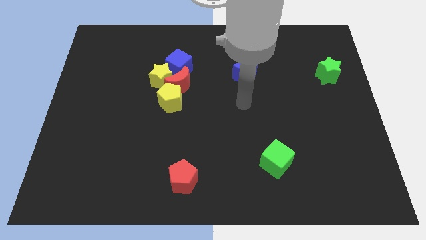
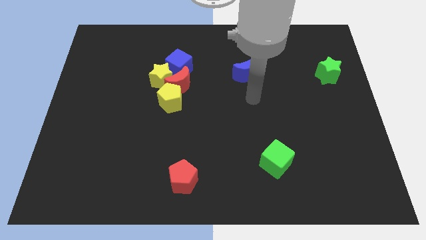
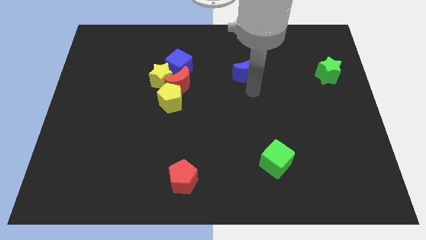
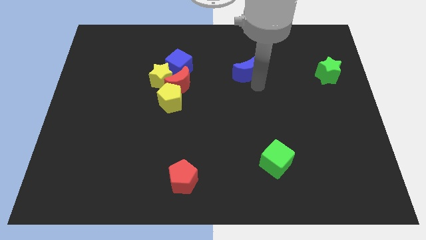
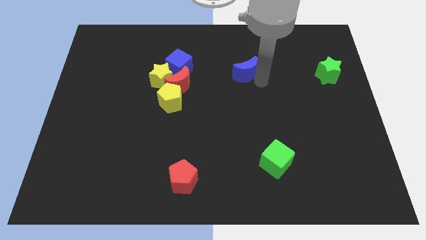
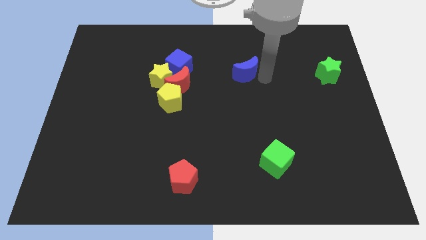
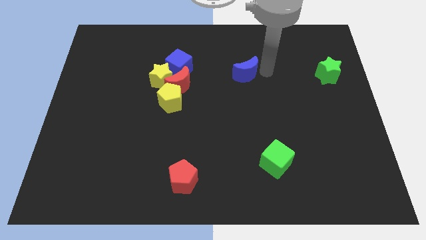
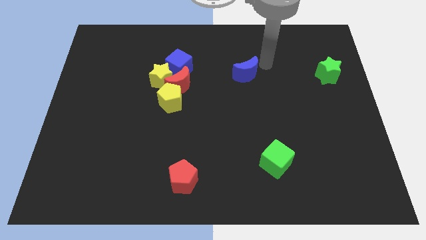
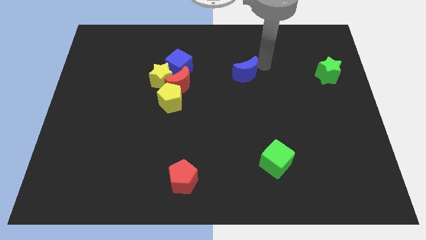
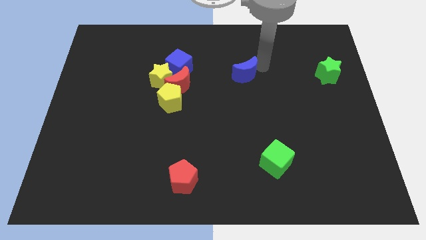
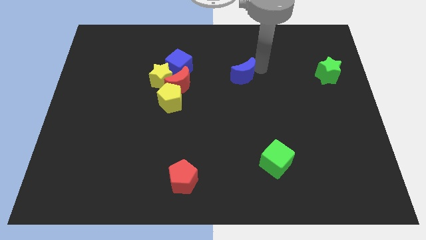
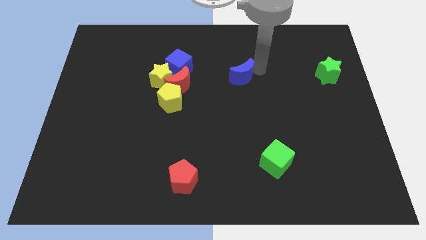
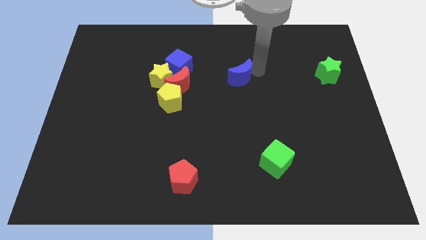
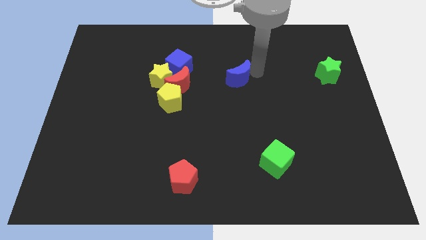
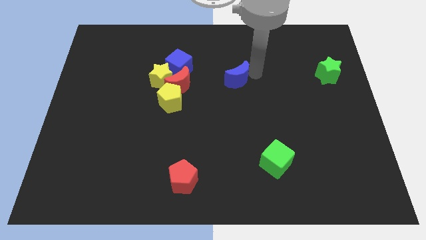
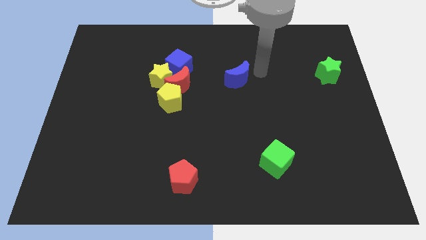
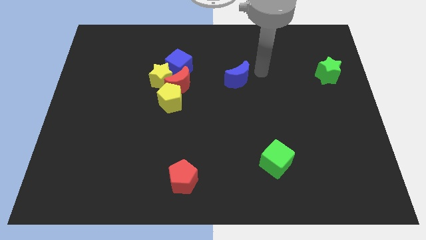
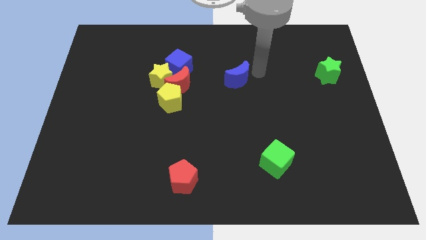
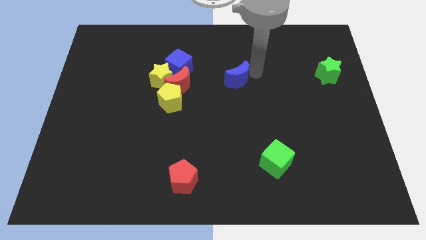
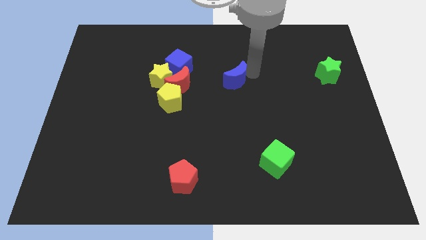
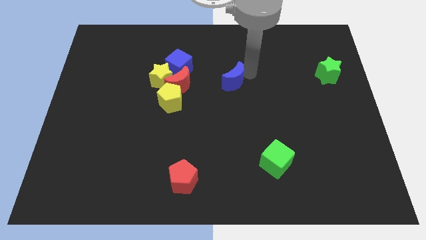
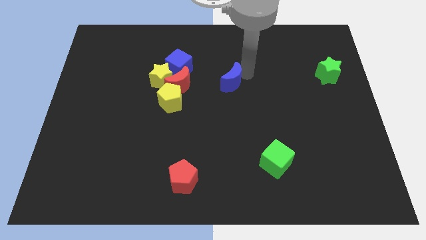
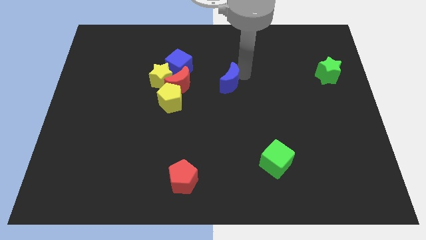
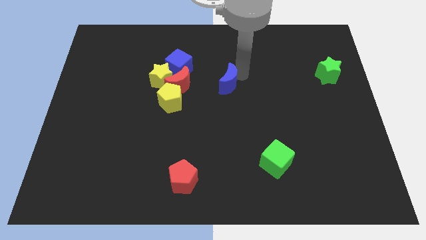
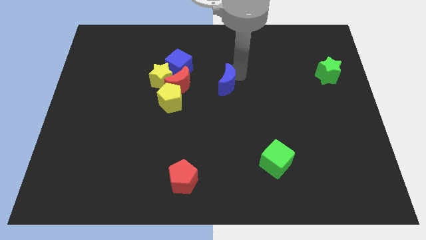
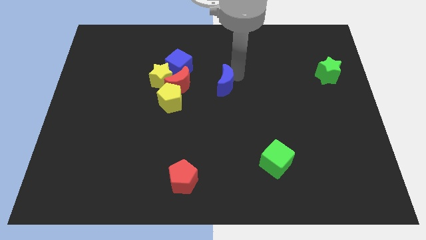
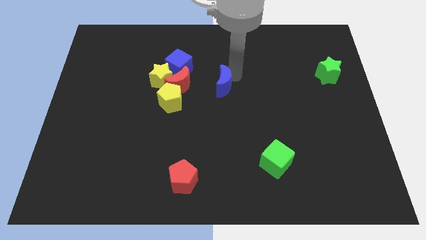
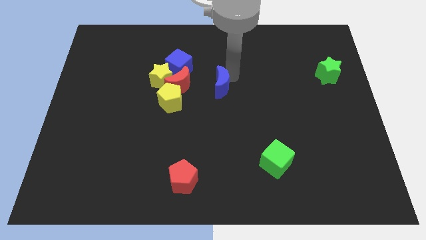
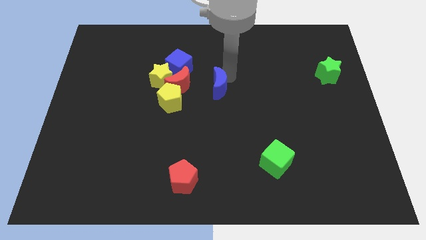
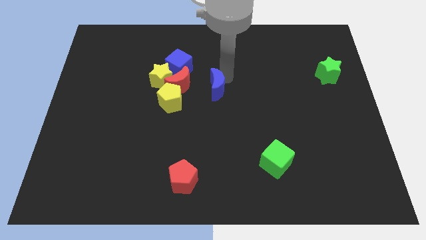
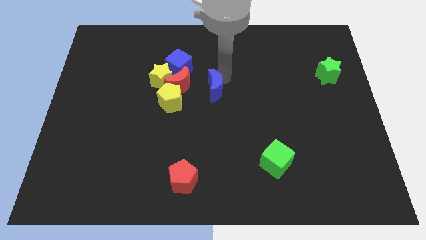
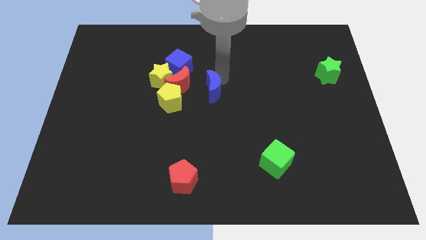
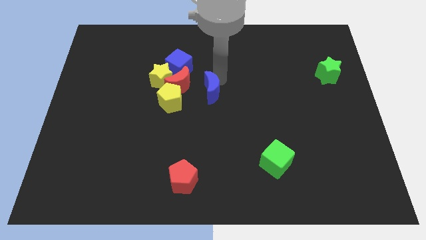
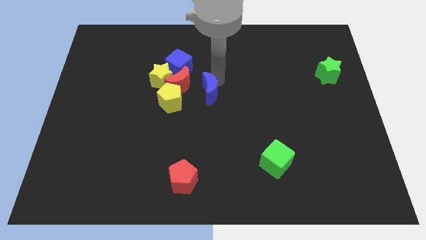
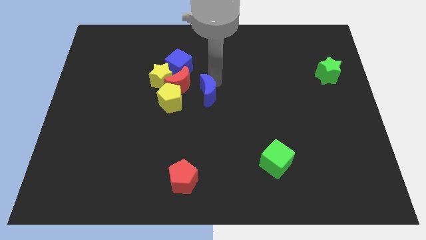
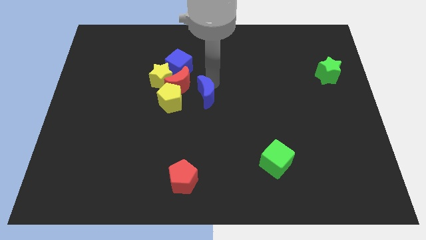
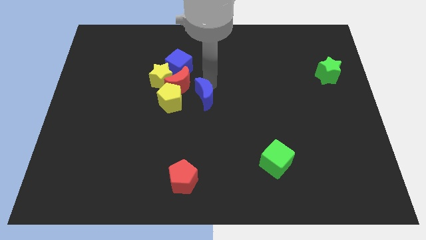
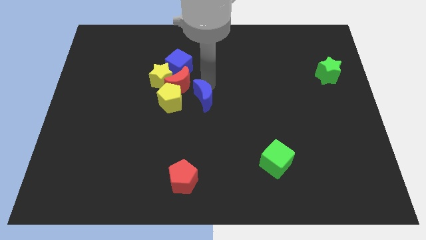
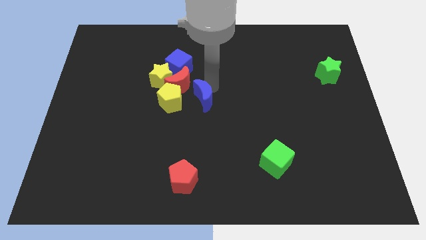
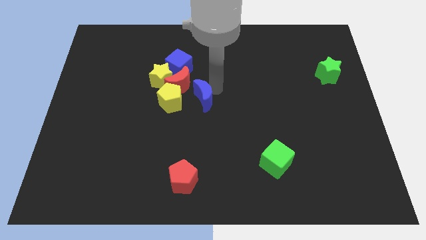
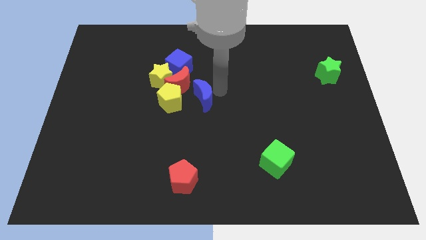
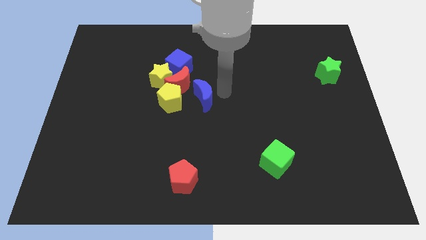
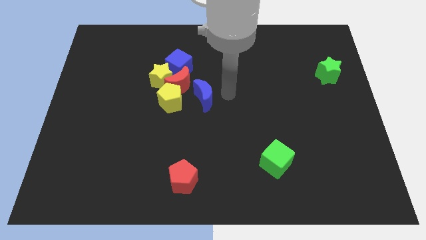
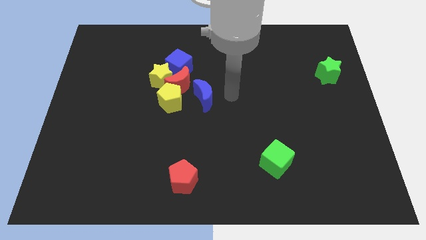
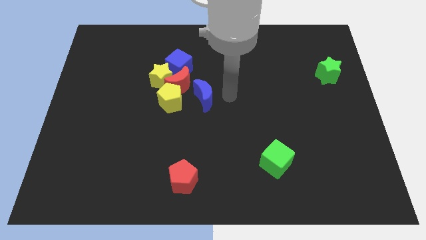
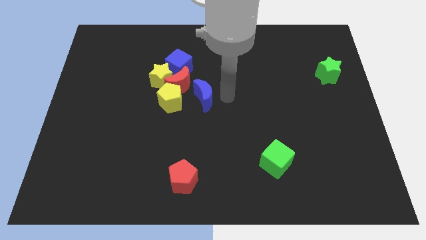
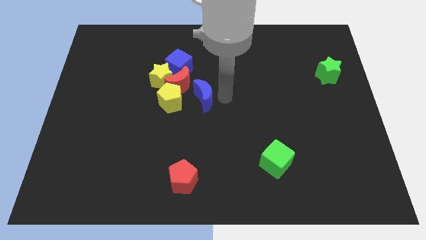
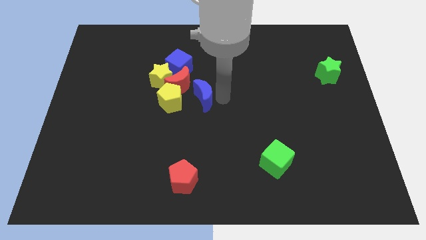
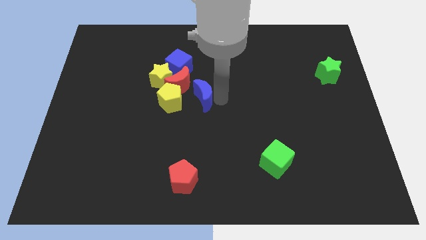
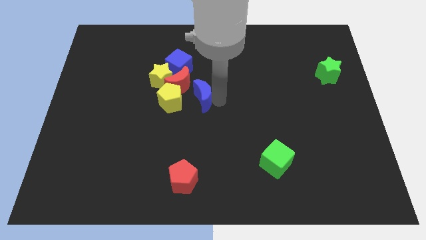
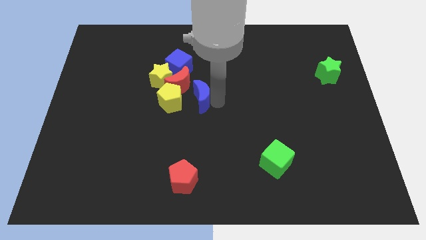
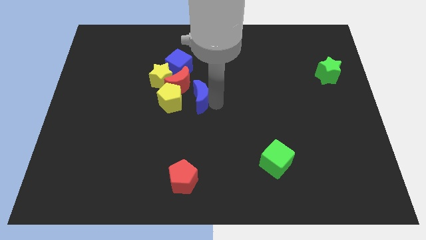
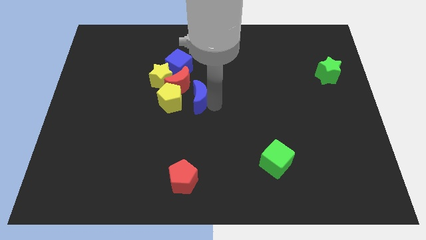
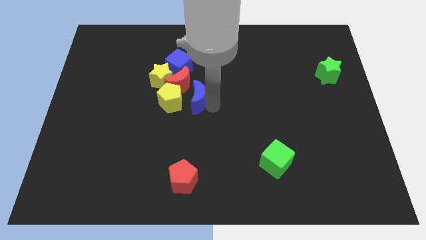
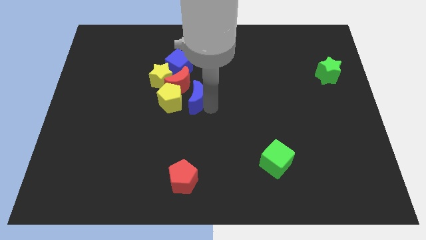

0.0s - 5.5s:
put the blue moon to the yellow pentagon

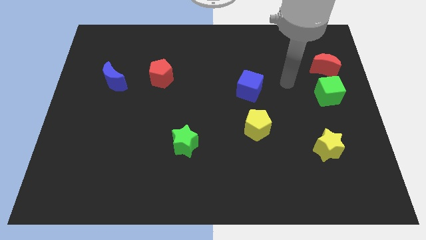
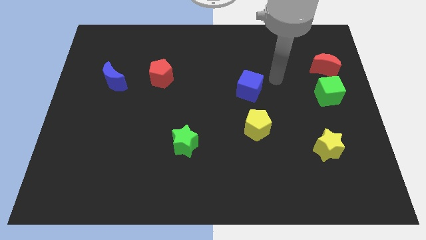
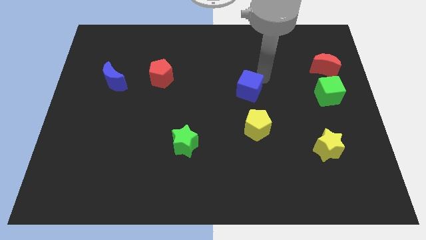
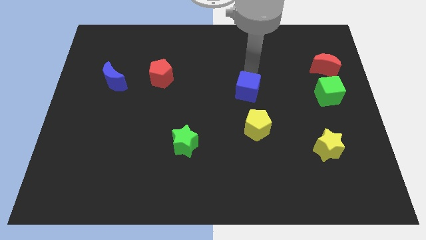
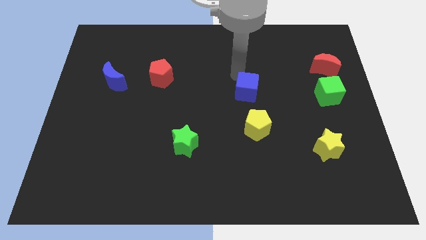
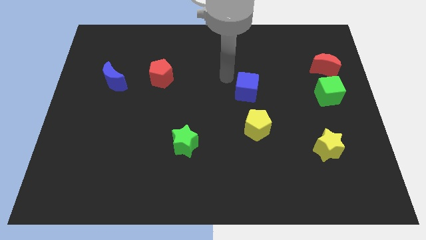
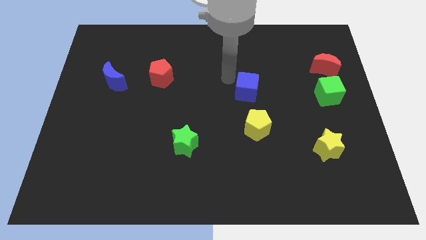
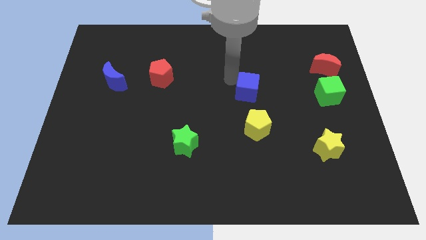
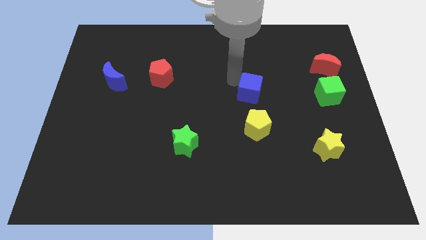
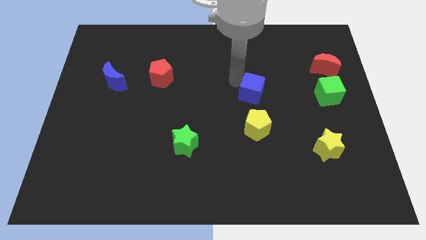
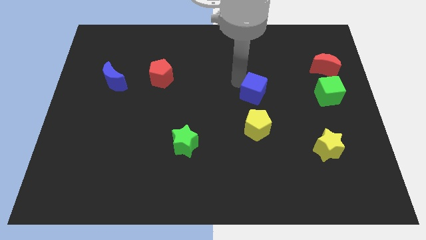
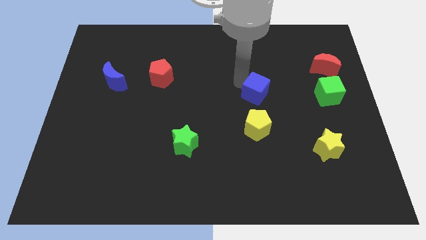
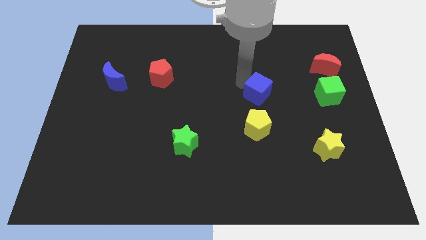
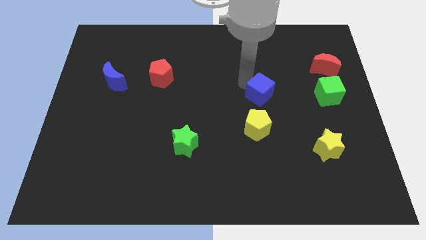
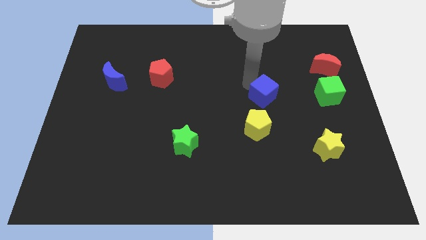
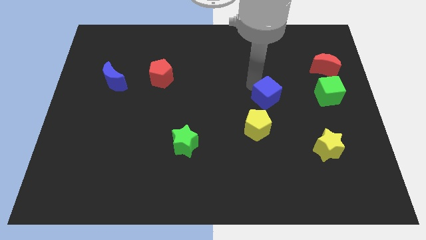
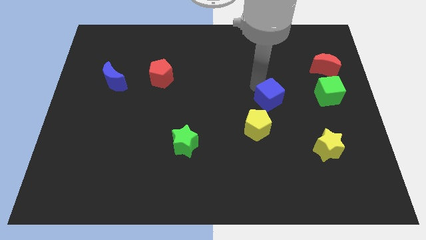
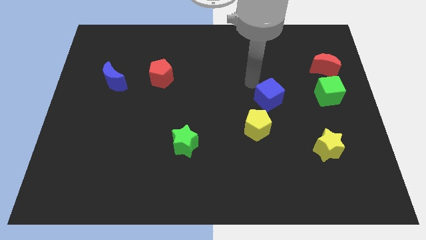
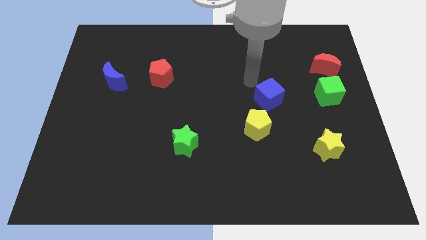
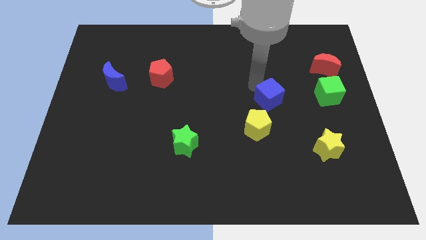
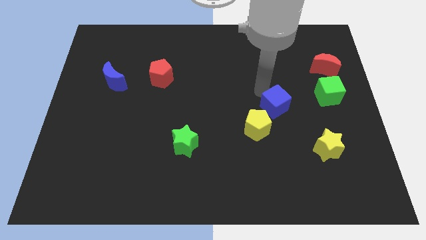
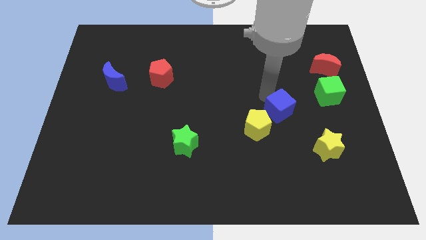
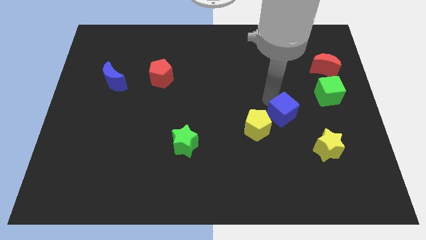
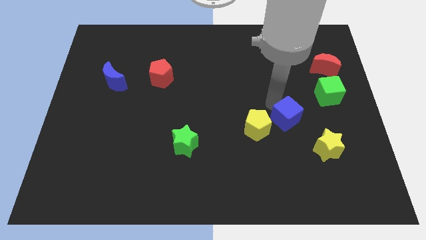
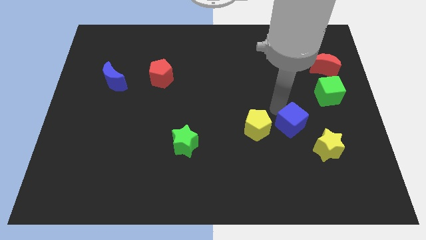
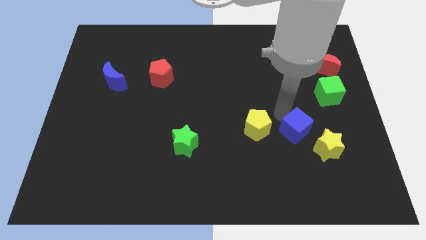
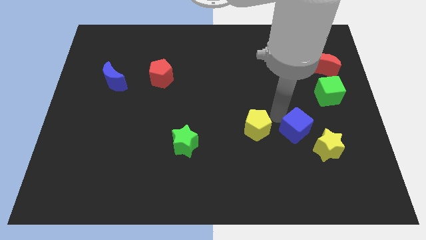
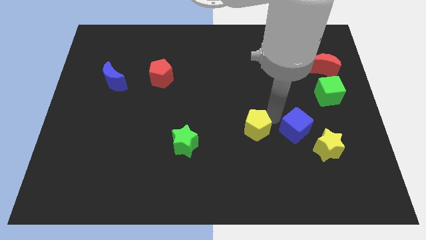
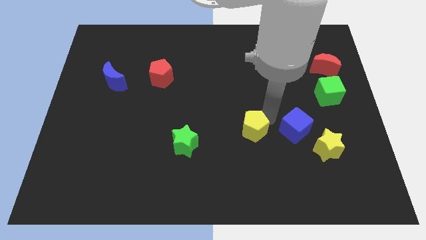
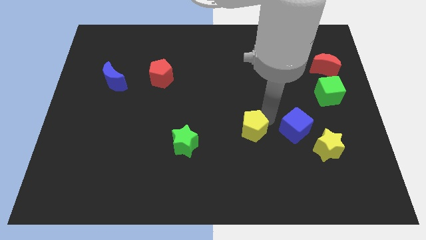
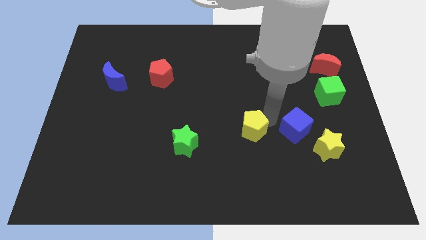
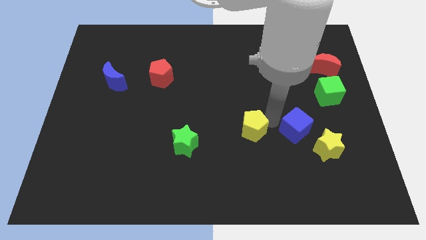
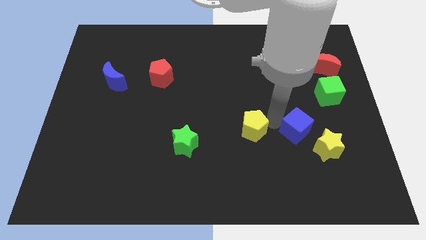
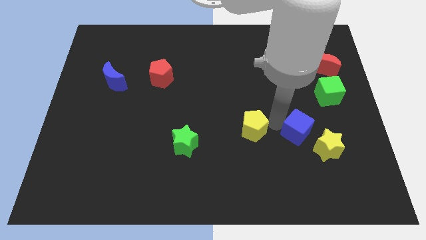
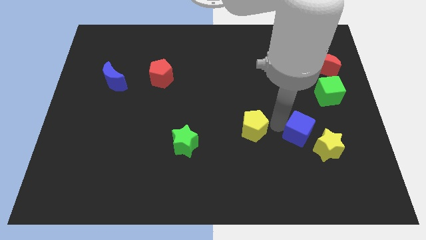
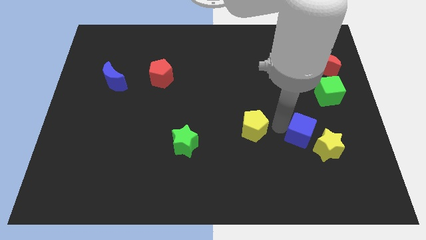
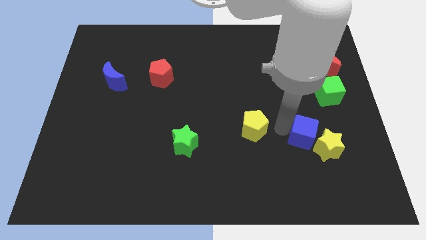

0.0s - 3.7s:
push the blue cube towards the yellow star
